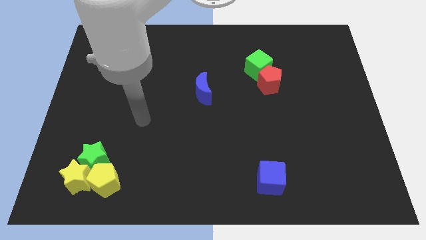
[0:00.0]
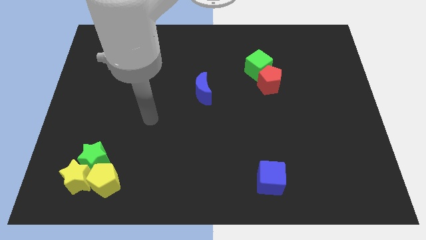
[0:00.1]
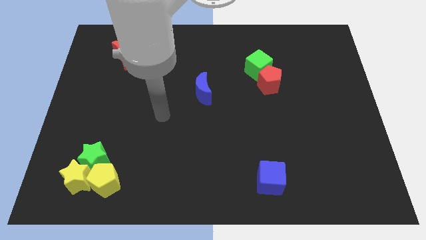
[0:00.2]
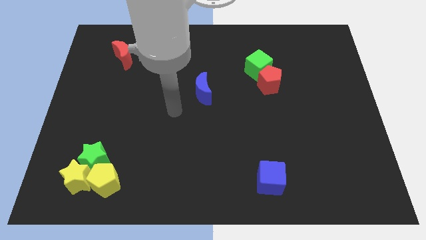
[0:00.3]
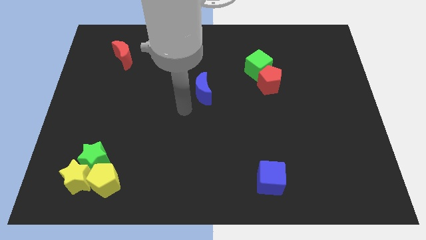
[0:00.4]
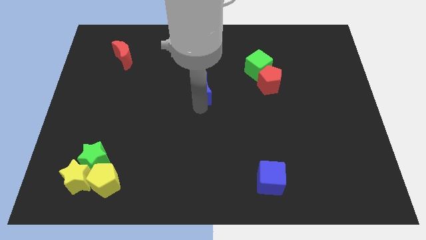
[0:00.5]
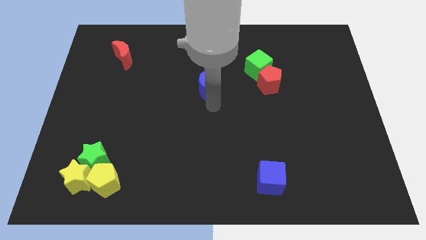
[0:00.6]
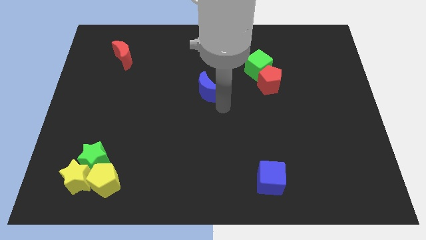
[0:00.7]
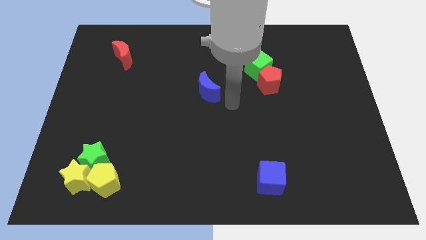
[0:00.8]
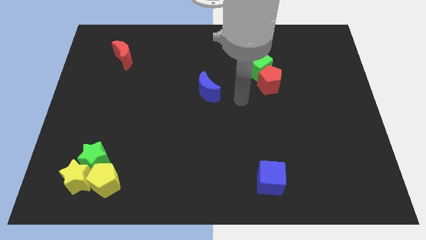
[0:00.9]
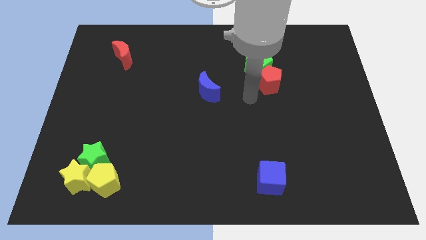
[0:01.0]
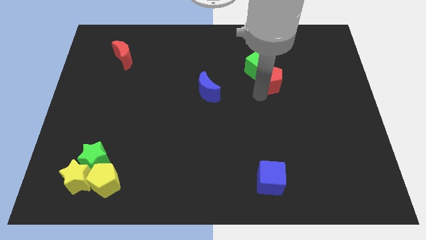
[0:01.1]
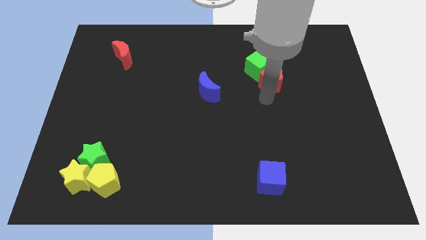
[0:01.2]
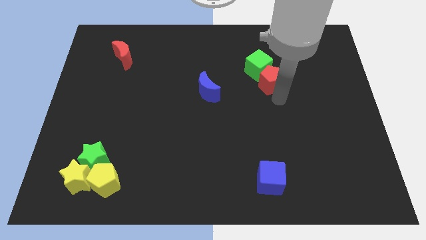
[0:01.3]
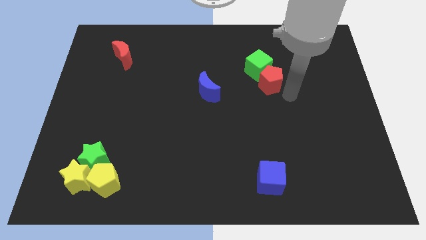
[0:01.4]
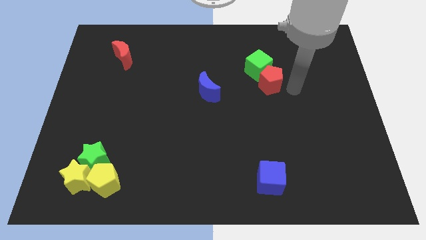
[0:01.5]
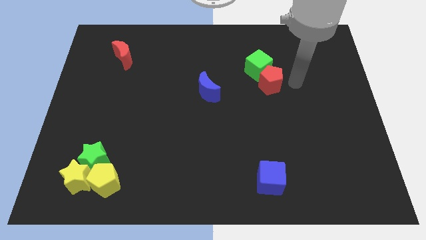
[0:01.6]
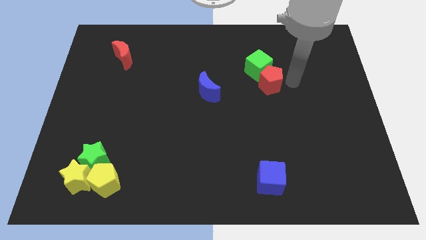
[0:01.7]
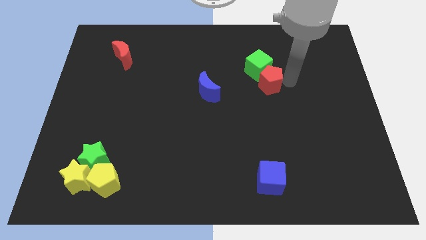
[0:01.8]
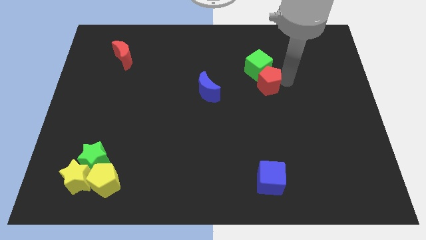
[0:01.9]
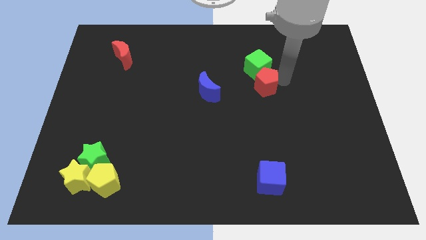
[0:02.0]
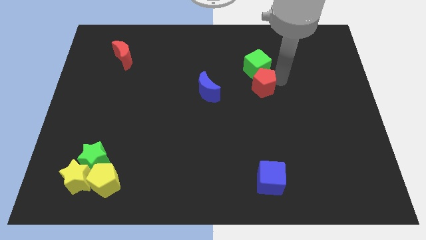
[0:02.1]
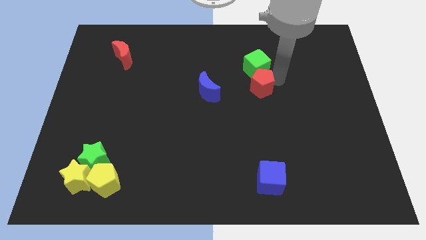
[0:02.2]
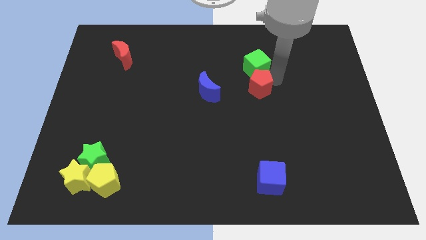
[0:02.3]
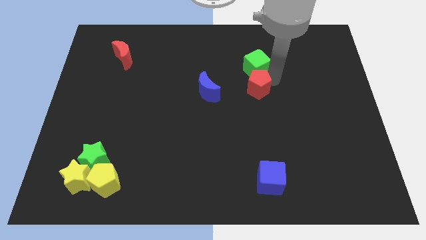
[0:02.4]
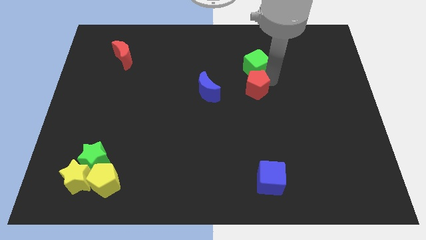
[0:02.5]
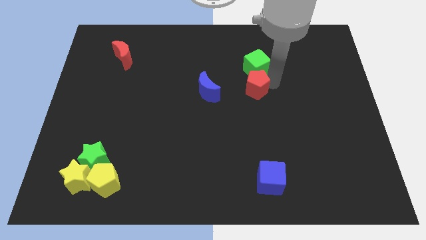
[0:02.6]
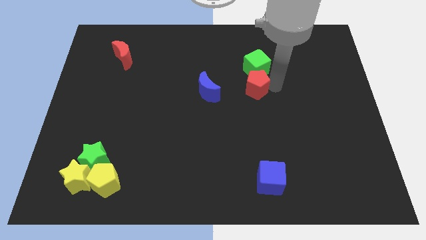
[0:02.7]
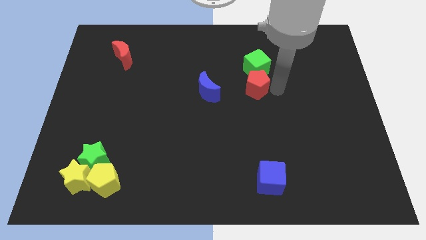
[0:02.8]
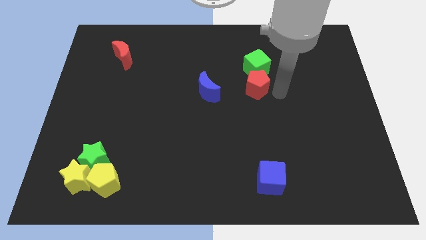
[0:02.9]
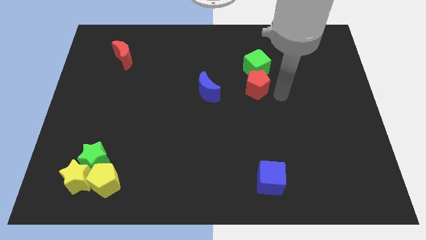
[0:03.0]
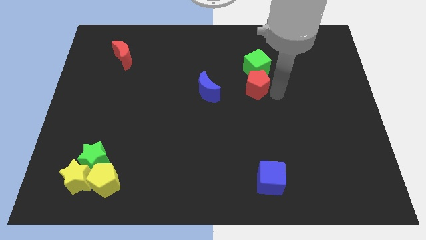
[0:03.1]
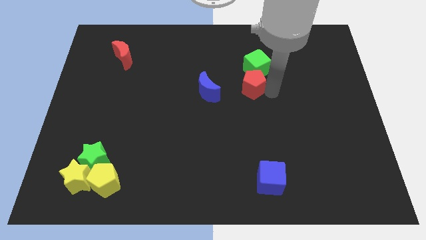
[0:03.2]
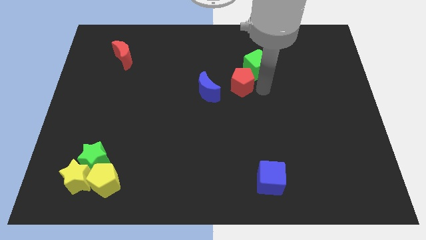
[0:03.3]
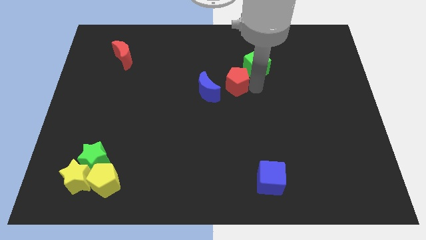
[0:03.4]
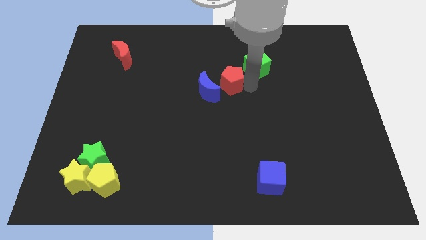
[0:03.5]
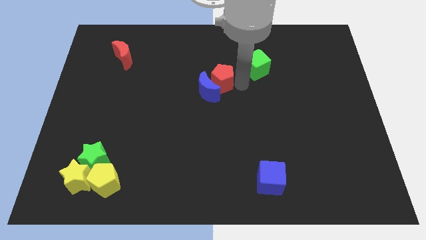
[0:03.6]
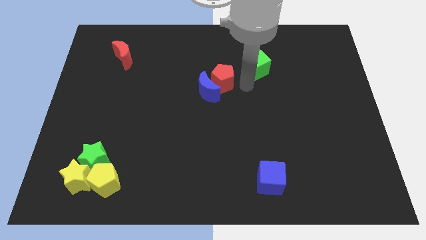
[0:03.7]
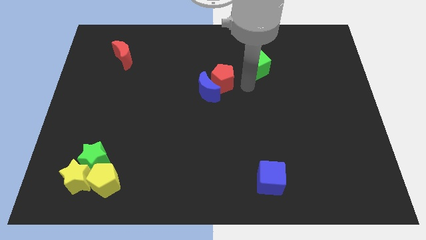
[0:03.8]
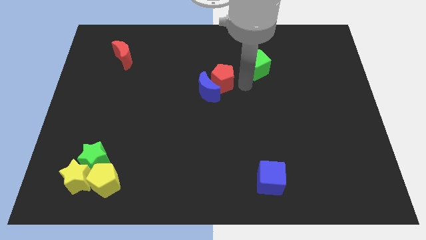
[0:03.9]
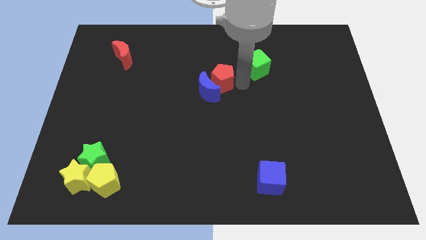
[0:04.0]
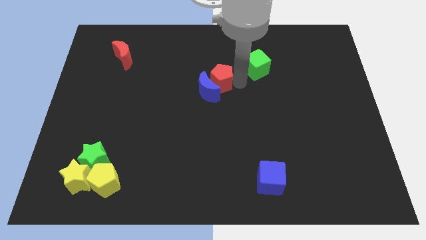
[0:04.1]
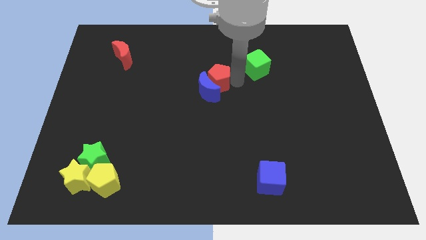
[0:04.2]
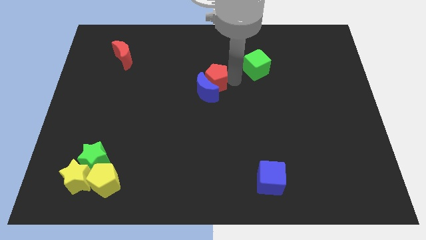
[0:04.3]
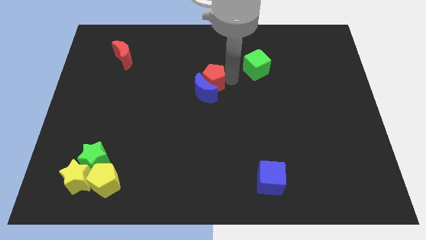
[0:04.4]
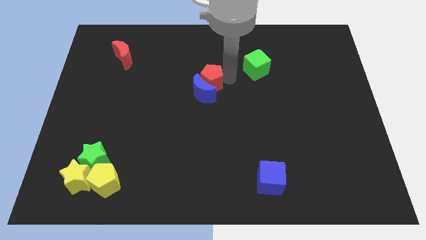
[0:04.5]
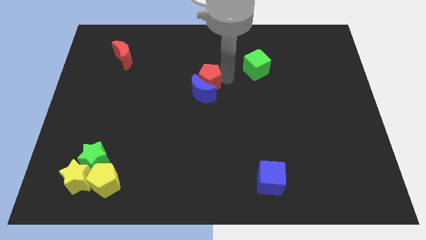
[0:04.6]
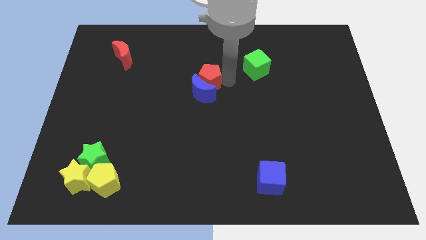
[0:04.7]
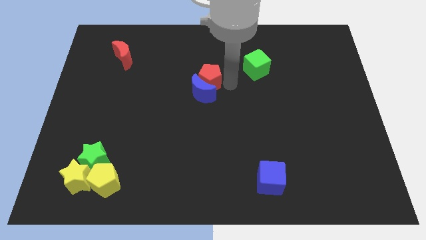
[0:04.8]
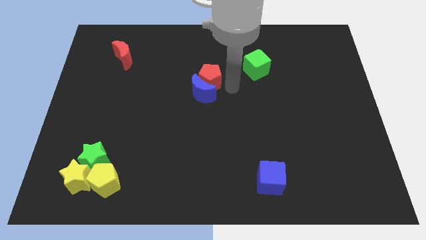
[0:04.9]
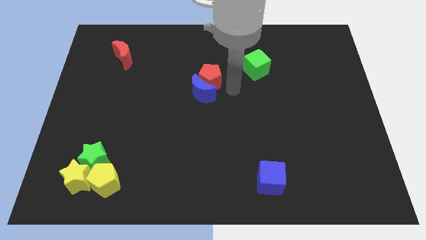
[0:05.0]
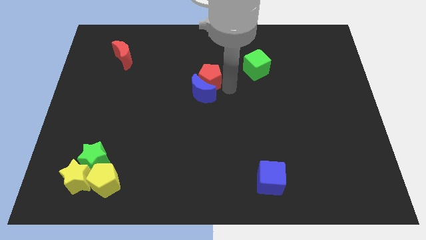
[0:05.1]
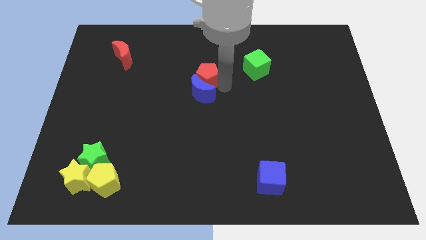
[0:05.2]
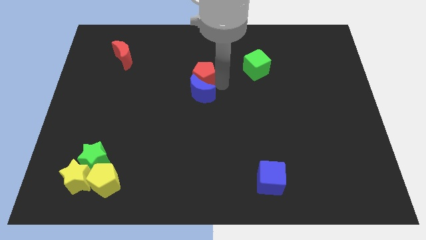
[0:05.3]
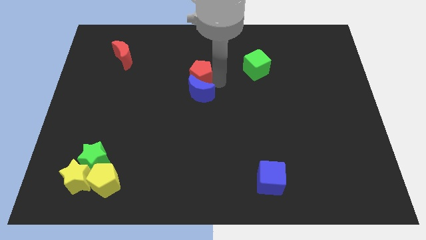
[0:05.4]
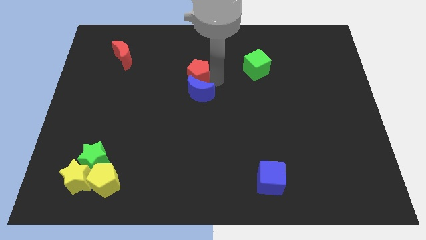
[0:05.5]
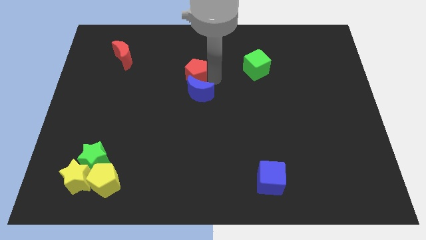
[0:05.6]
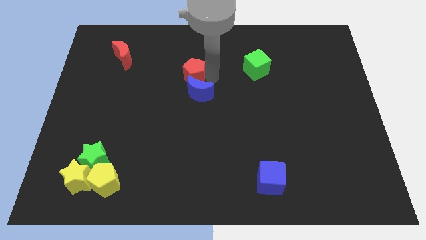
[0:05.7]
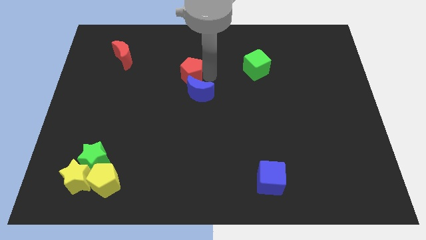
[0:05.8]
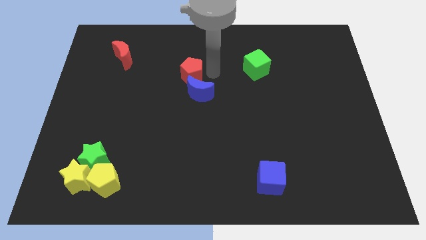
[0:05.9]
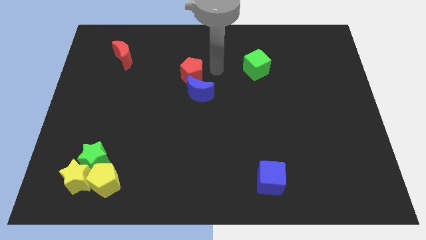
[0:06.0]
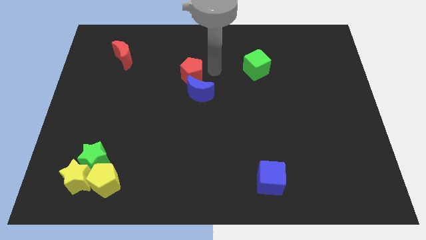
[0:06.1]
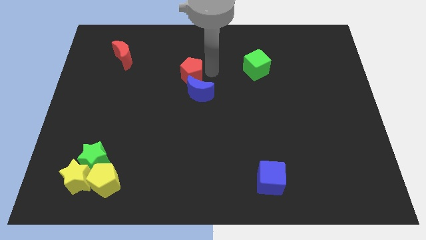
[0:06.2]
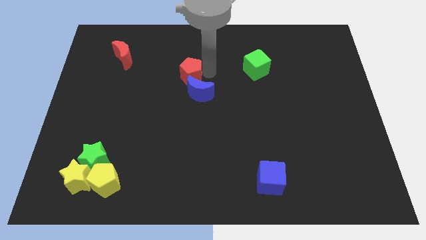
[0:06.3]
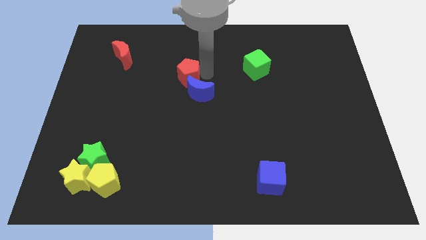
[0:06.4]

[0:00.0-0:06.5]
slide the red pentagon left

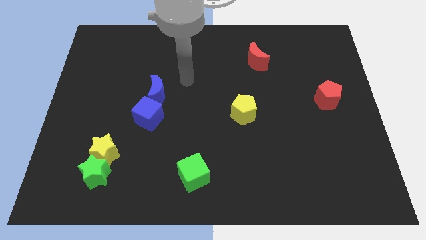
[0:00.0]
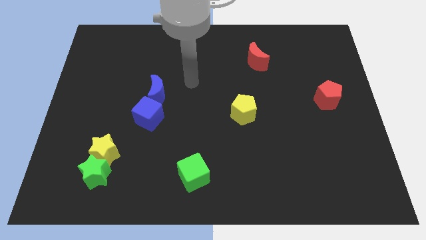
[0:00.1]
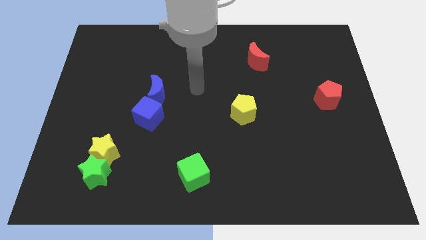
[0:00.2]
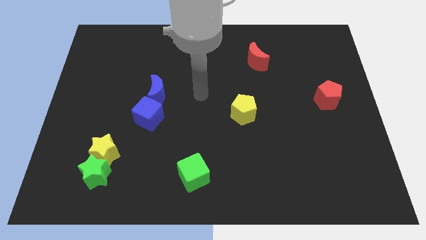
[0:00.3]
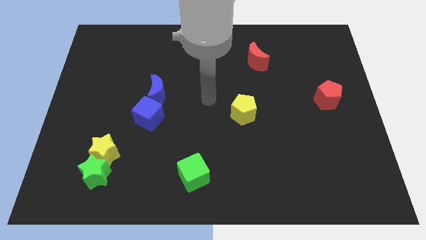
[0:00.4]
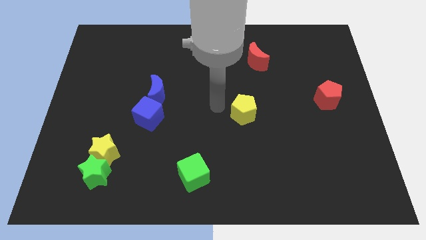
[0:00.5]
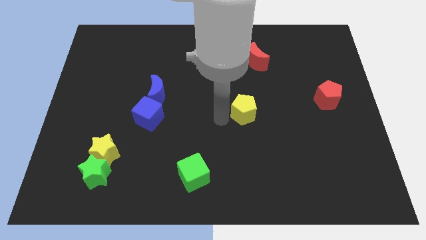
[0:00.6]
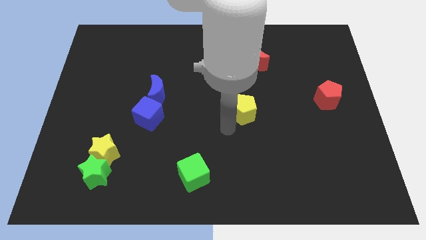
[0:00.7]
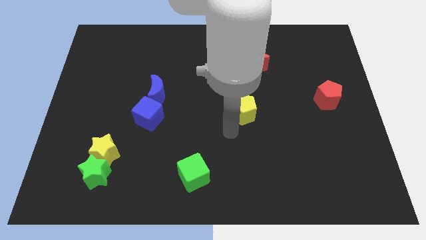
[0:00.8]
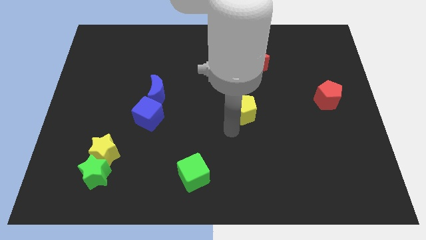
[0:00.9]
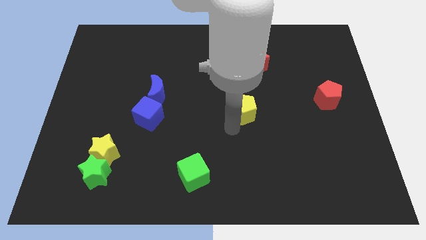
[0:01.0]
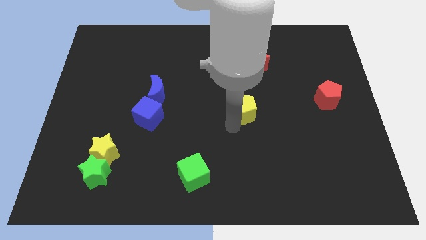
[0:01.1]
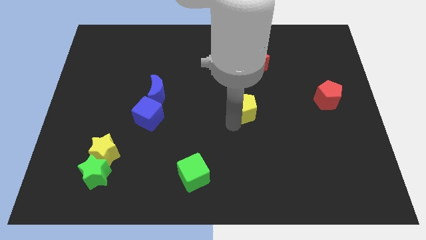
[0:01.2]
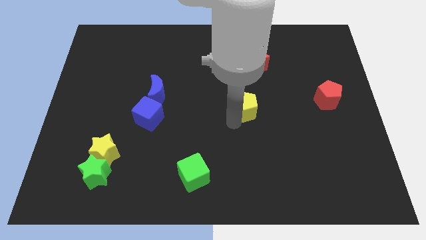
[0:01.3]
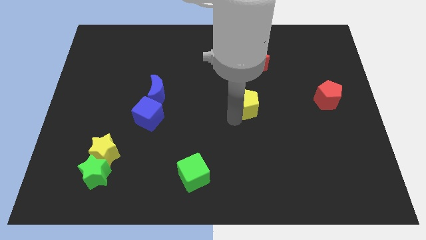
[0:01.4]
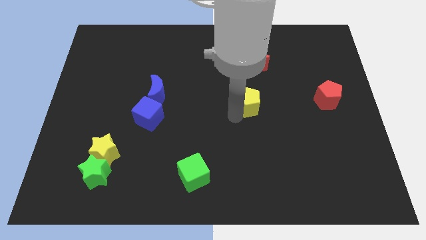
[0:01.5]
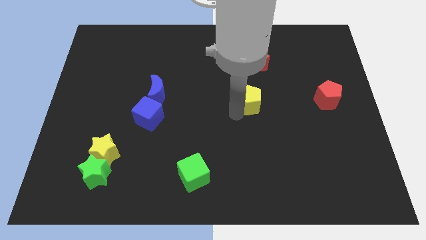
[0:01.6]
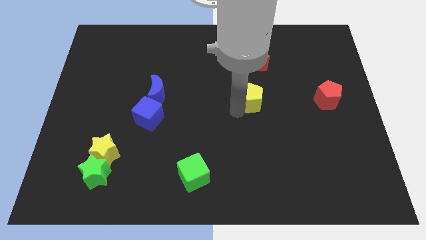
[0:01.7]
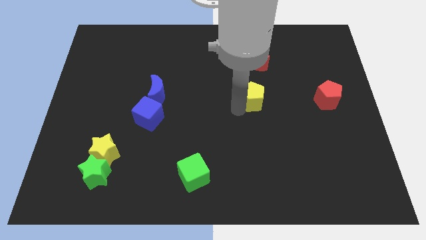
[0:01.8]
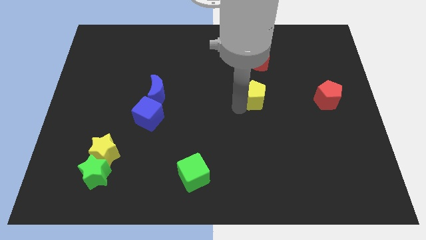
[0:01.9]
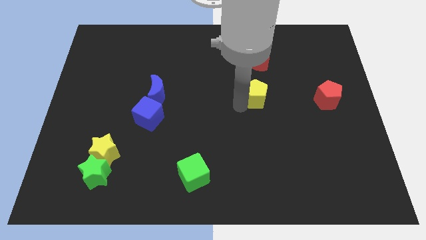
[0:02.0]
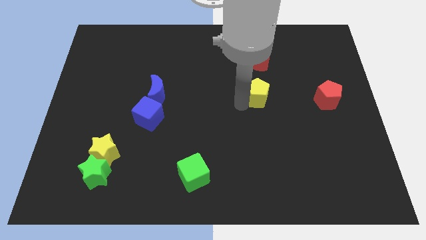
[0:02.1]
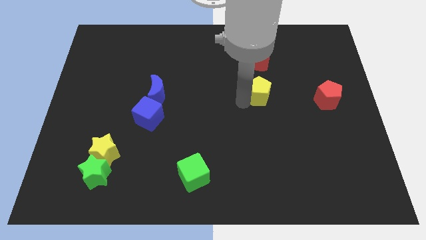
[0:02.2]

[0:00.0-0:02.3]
slide the yellow pentagon diagonally up and right slightly
